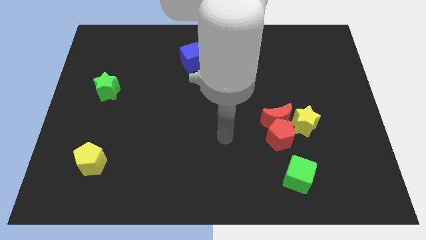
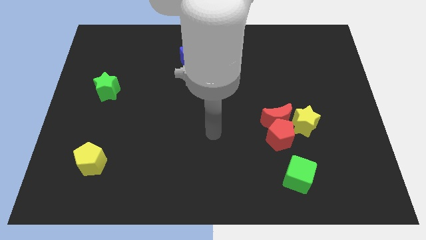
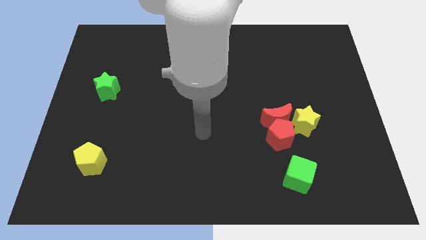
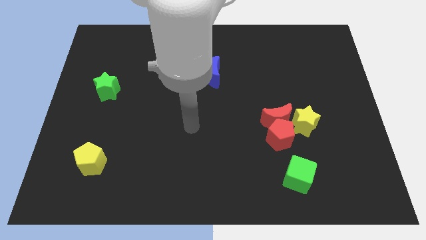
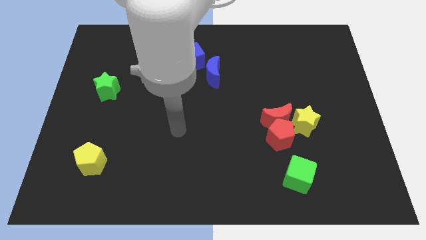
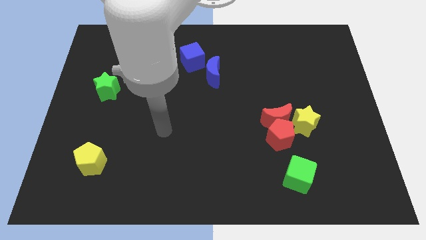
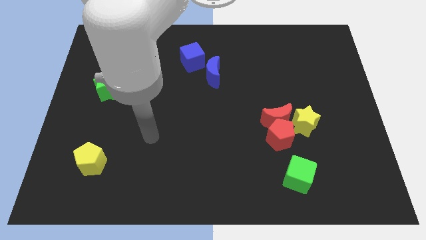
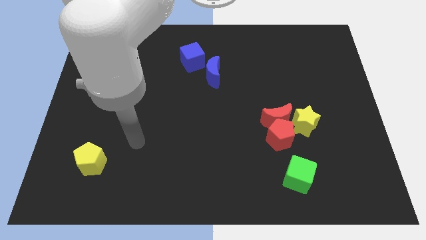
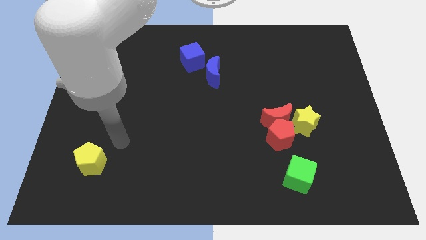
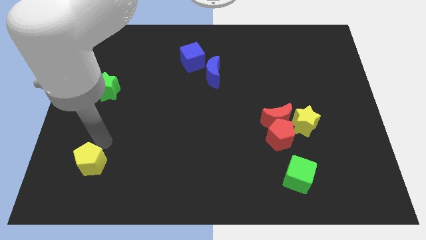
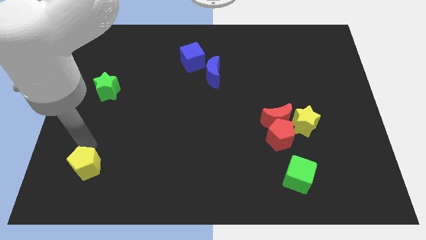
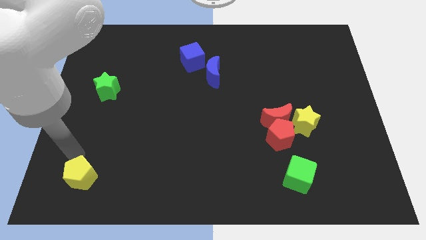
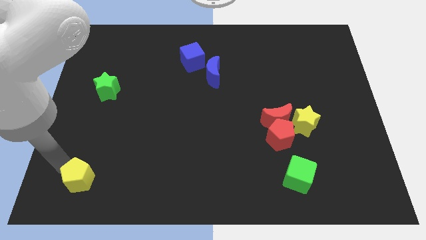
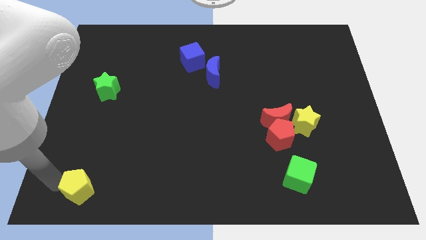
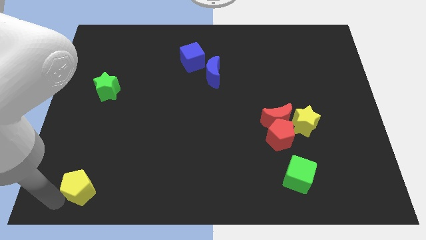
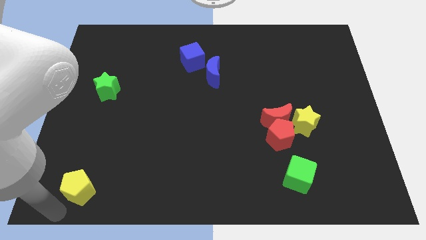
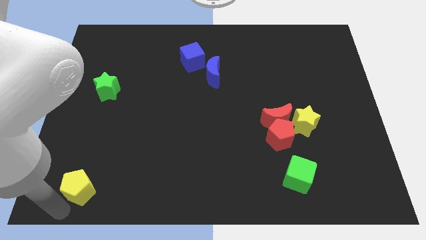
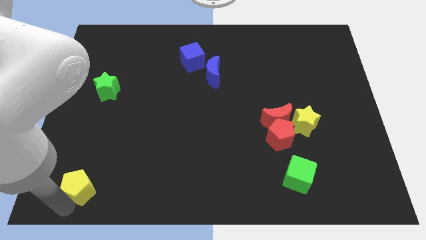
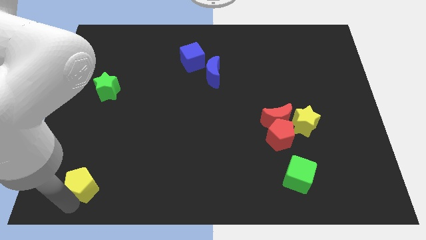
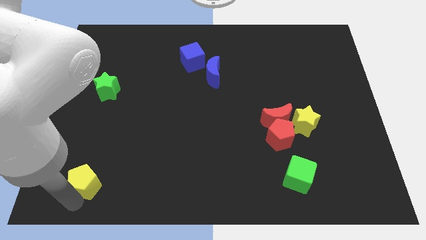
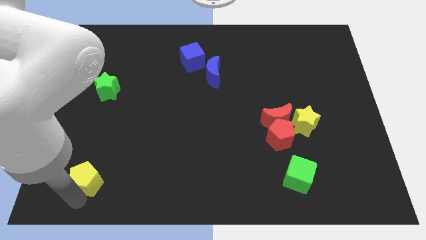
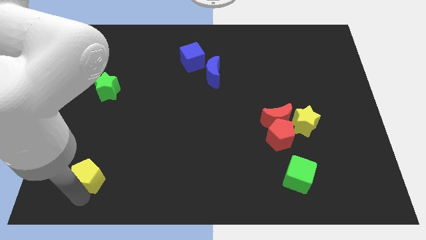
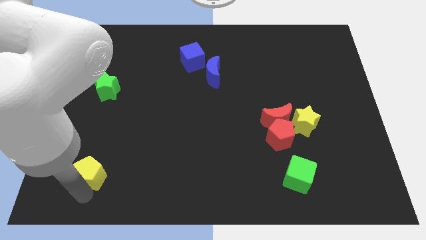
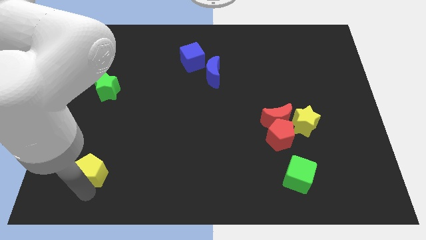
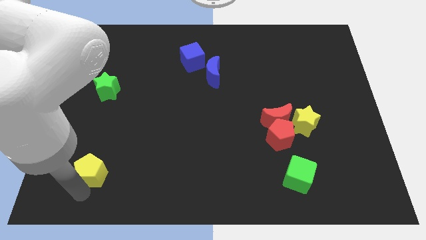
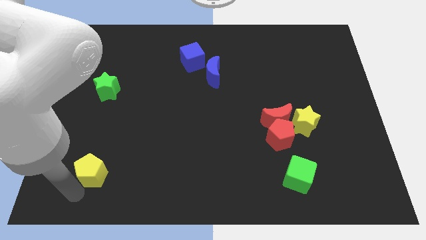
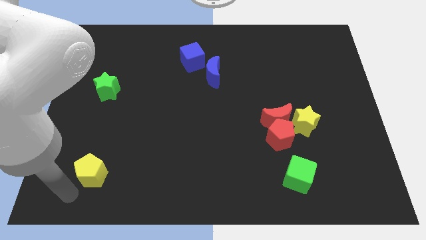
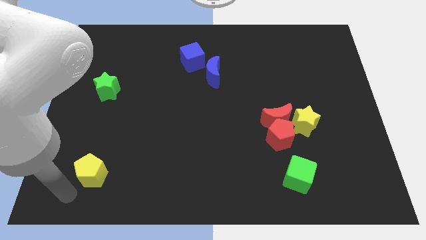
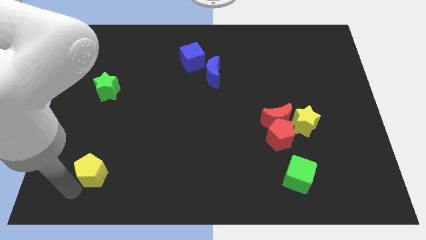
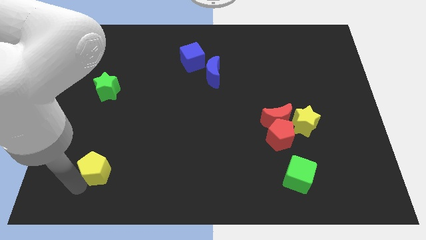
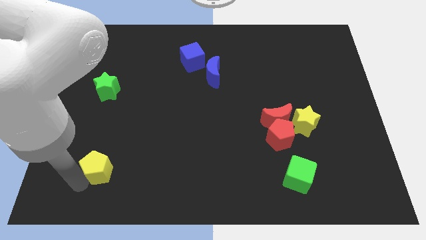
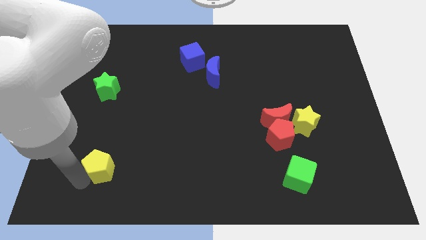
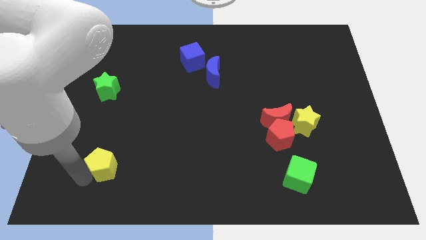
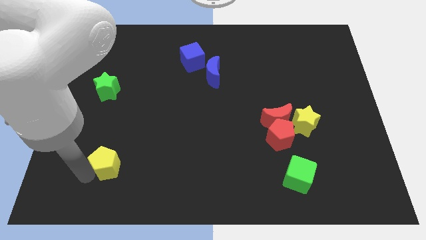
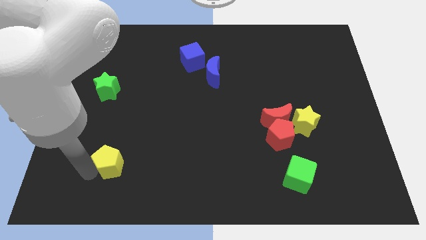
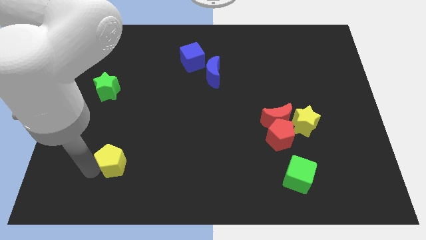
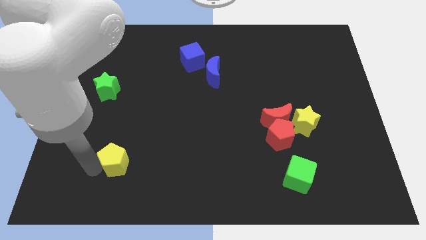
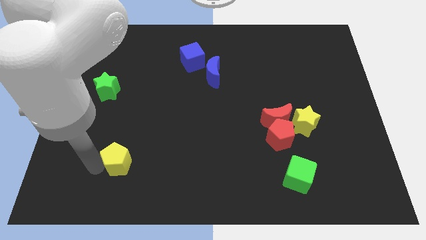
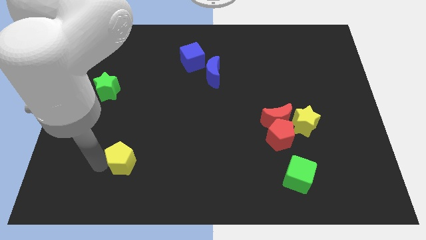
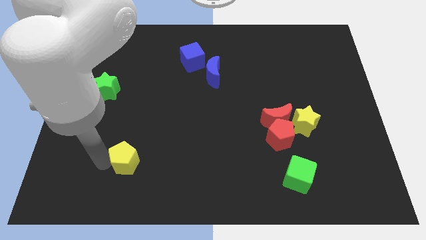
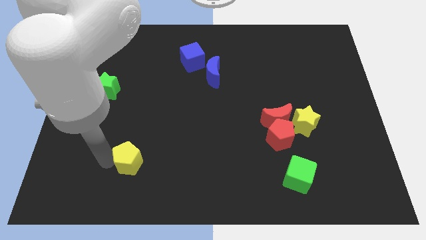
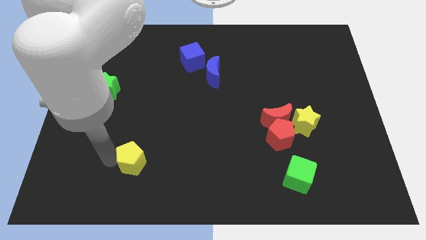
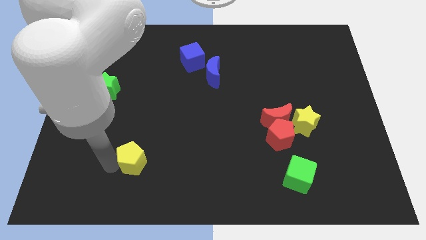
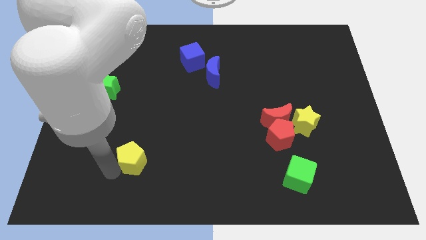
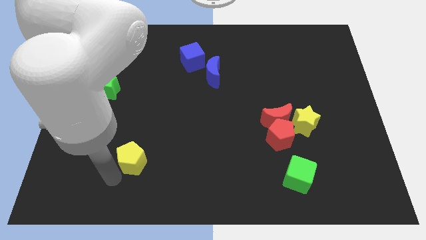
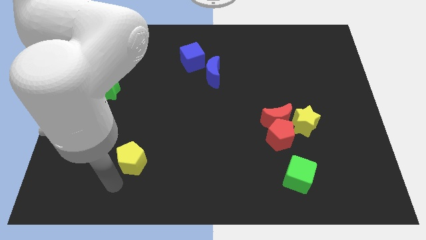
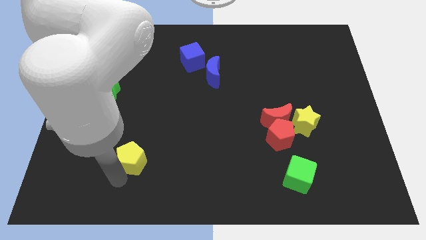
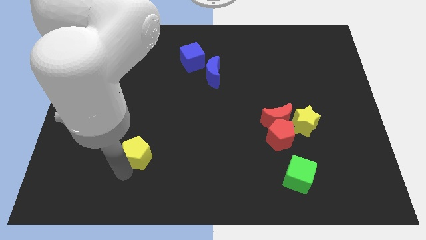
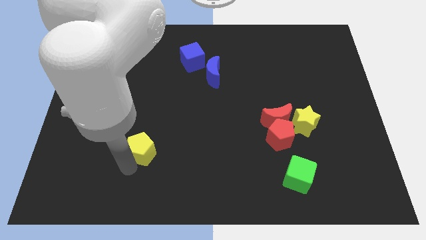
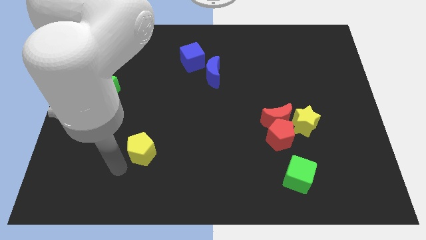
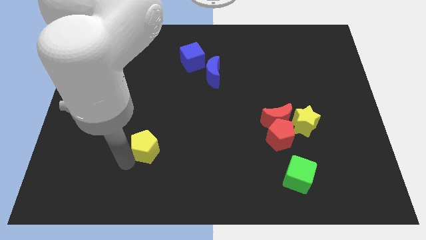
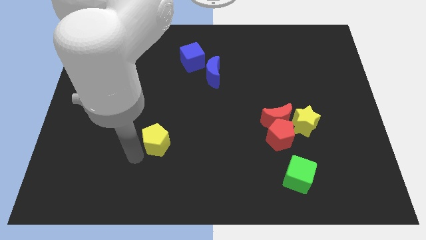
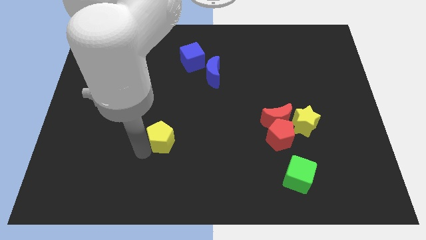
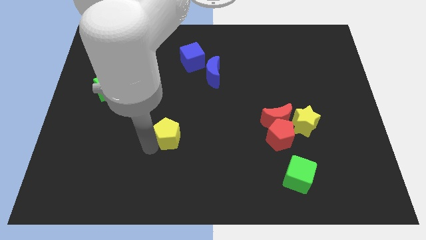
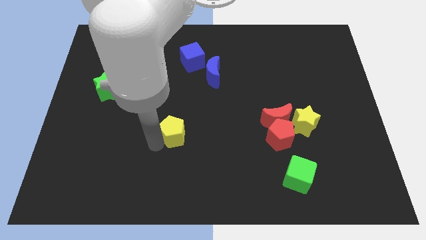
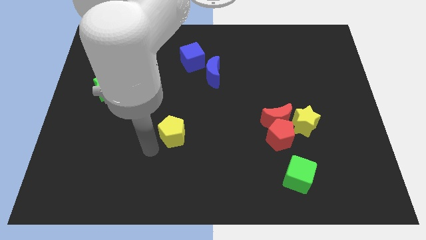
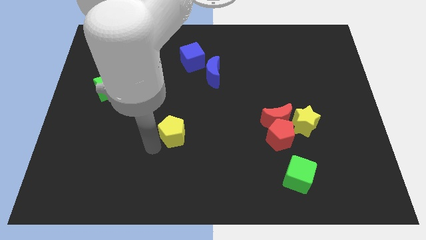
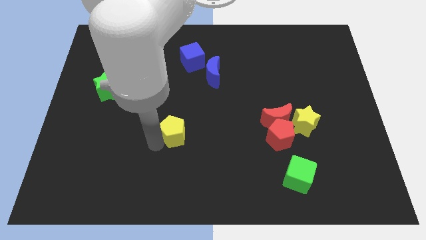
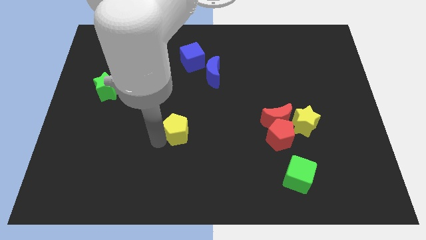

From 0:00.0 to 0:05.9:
slide the yellow pentagon to the center of the board

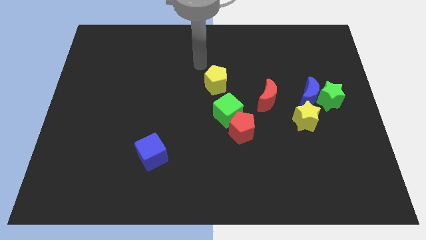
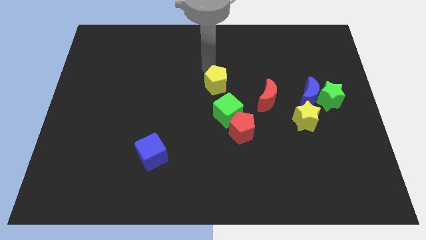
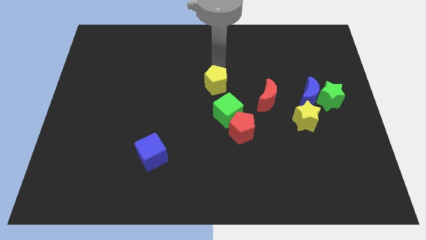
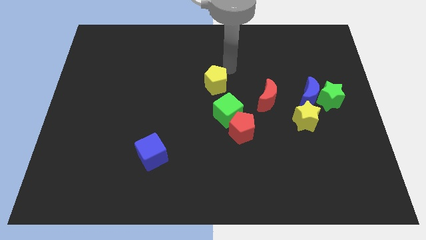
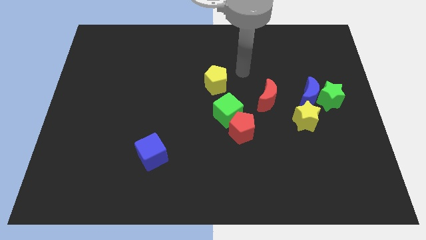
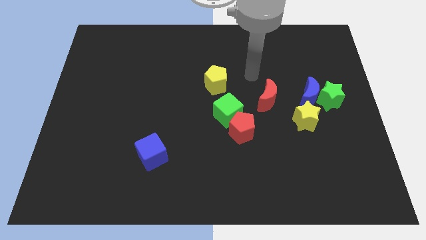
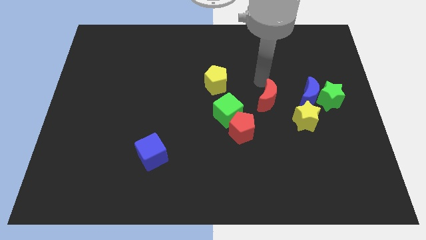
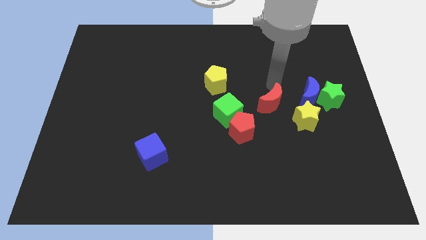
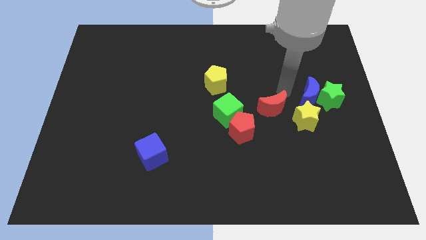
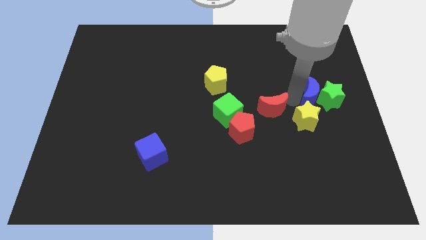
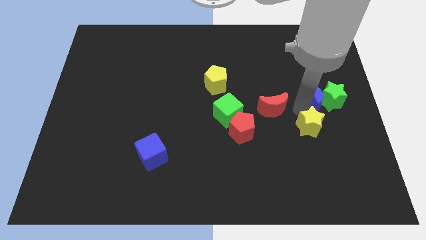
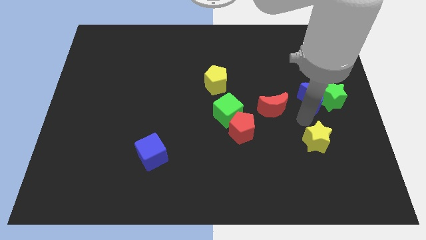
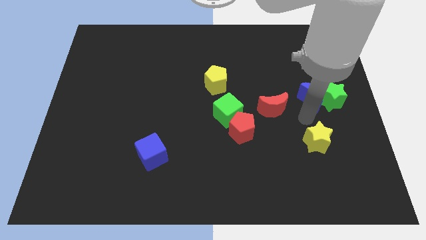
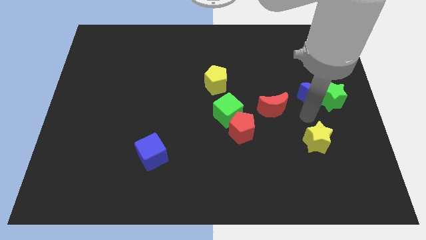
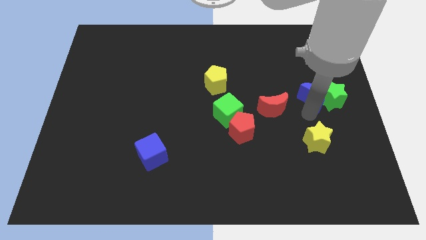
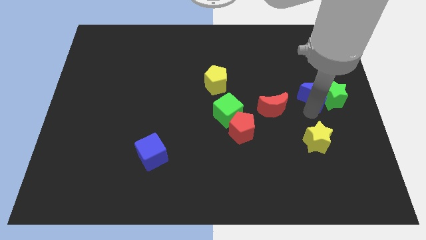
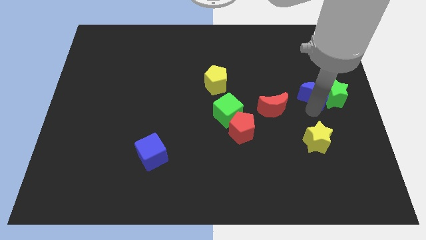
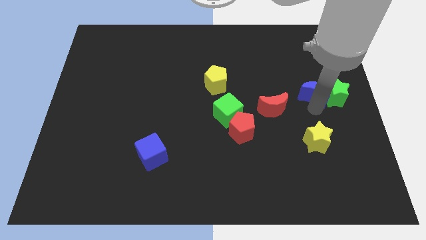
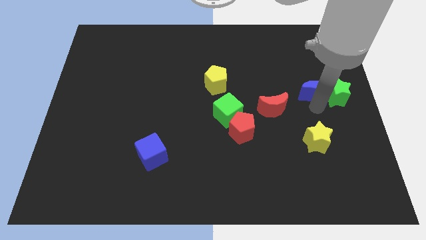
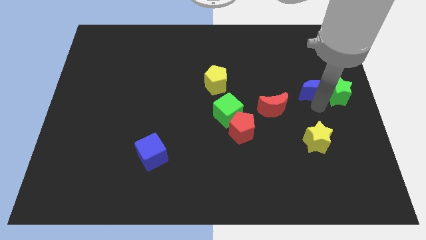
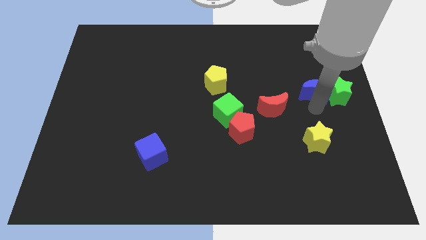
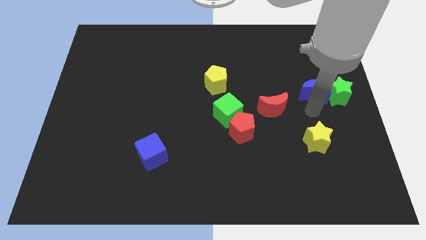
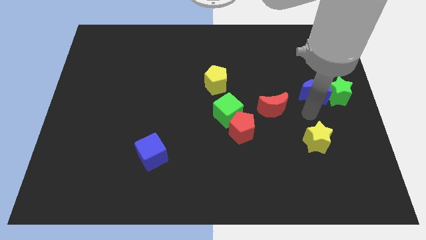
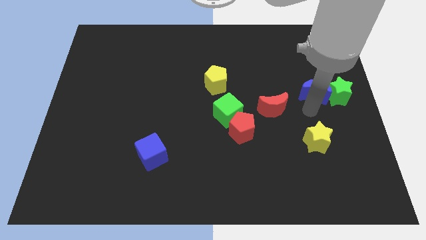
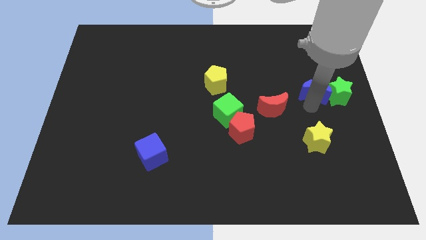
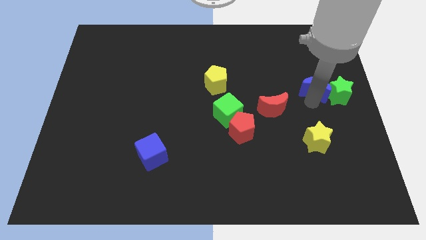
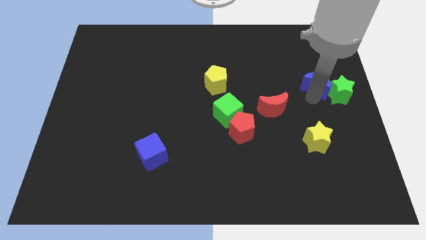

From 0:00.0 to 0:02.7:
put the blue moon to the right side of the board

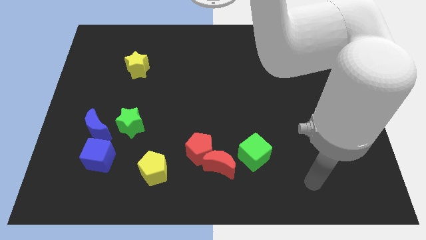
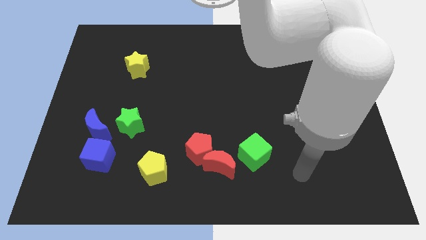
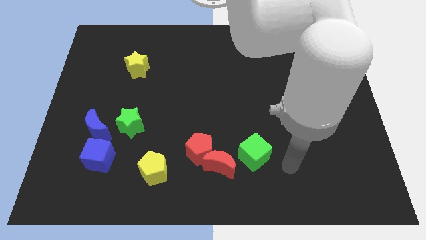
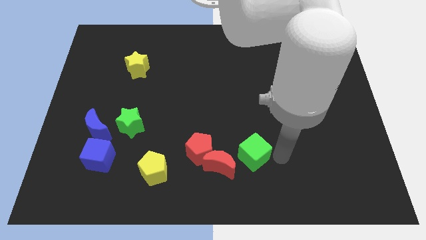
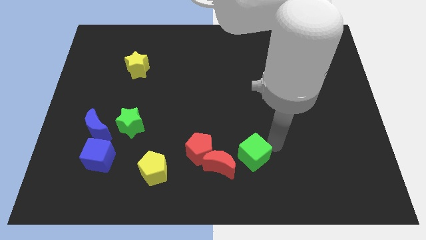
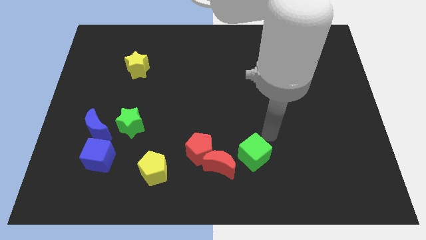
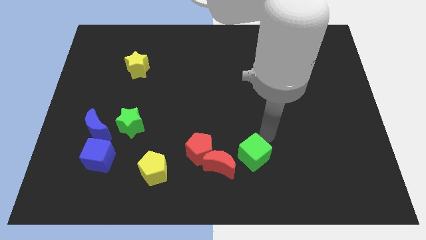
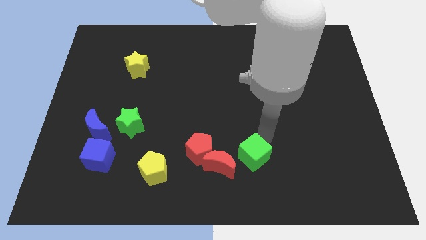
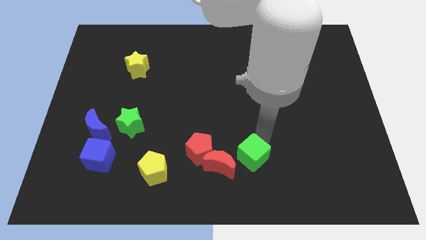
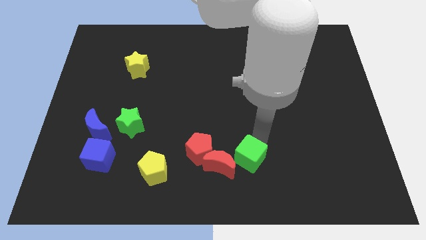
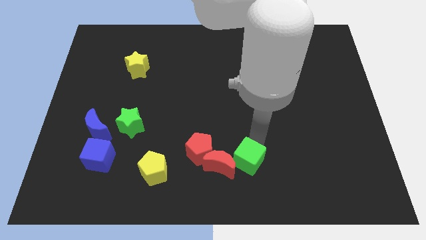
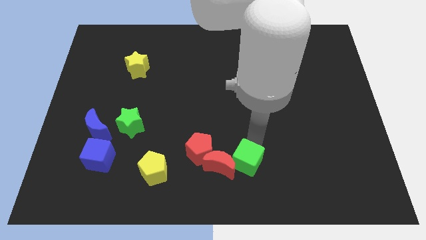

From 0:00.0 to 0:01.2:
move the green cube to the bottom
